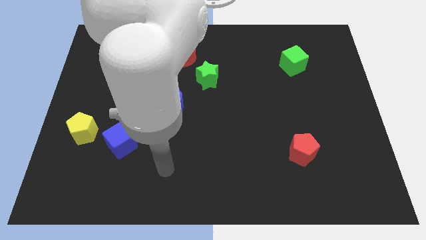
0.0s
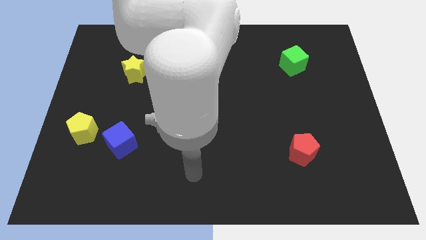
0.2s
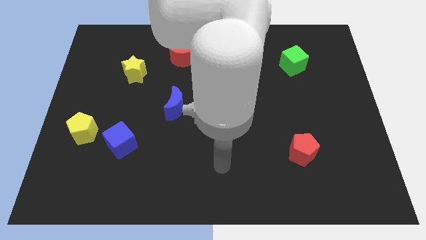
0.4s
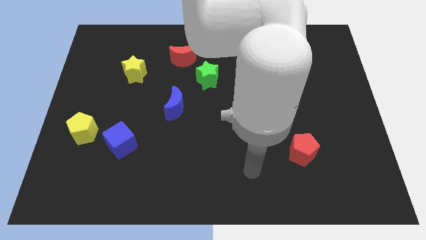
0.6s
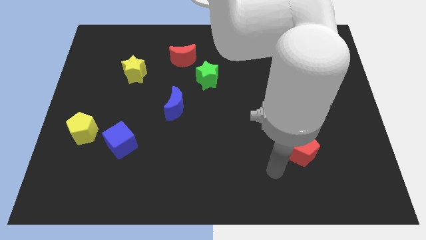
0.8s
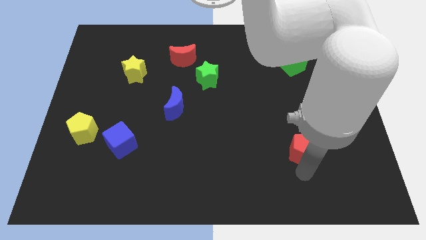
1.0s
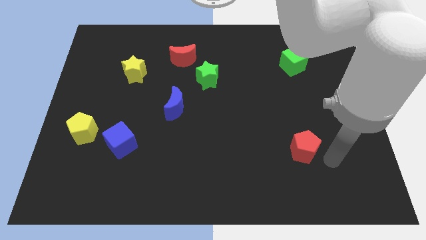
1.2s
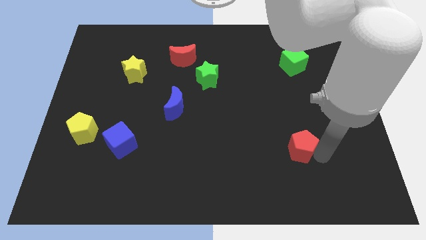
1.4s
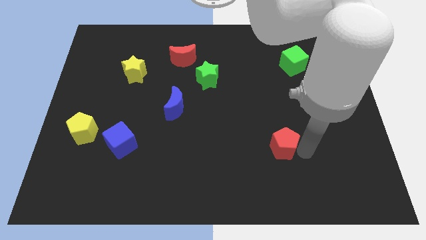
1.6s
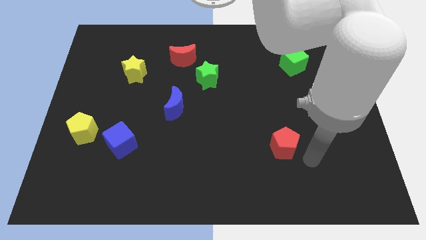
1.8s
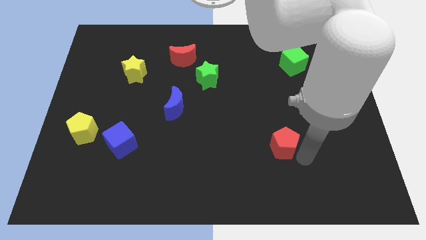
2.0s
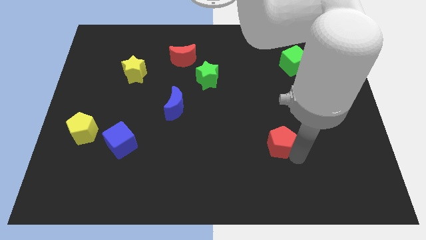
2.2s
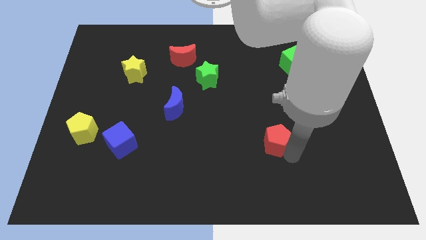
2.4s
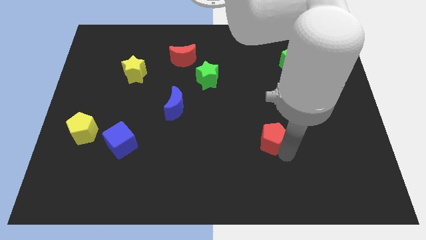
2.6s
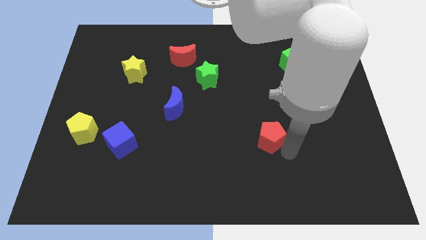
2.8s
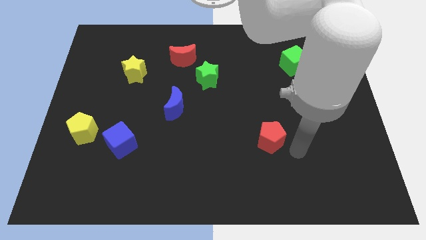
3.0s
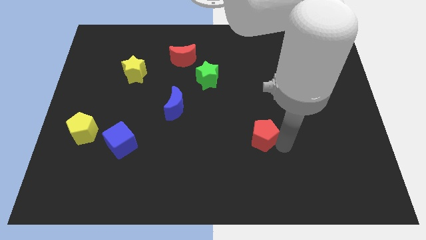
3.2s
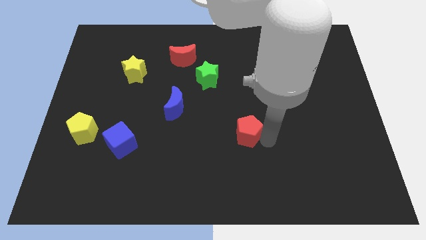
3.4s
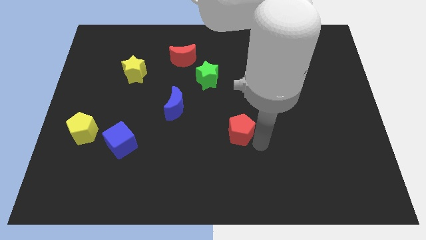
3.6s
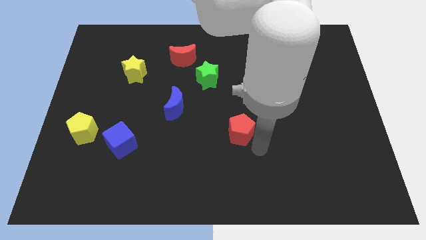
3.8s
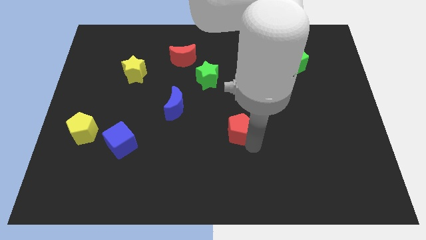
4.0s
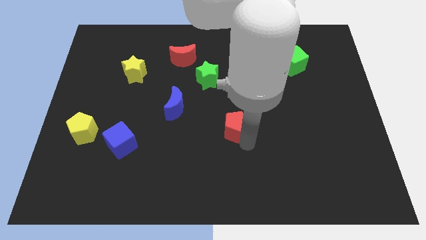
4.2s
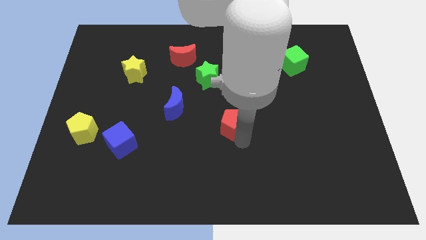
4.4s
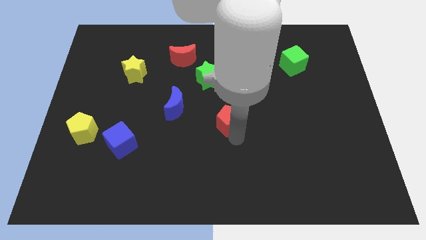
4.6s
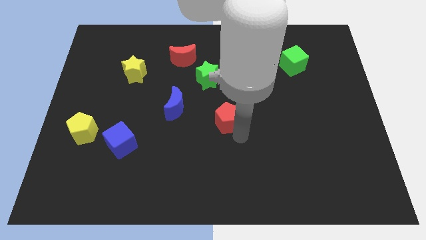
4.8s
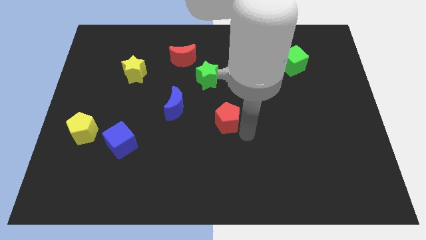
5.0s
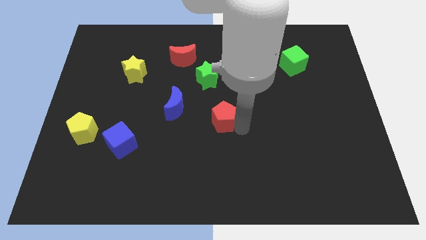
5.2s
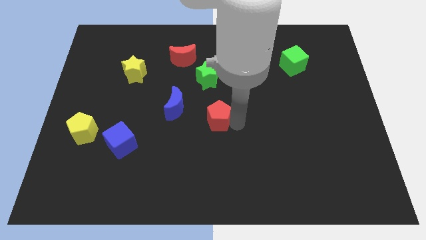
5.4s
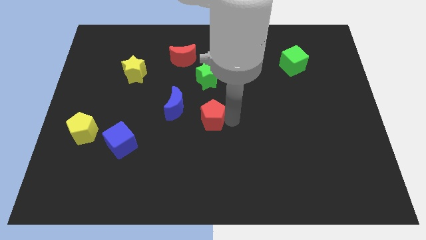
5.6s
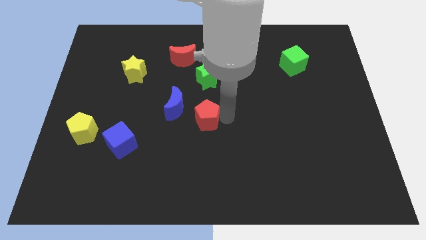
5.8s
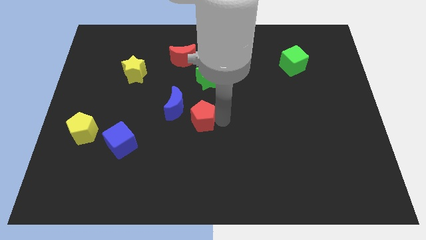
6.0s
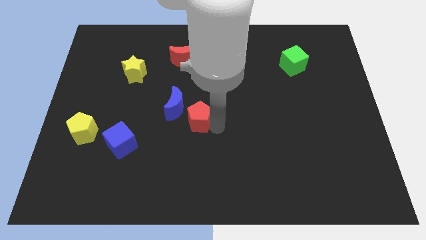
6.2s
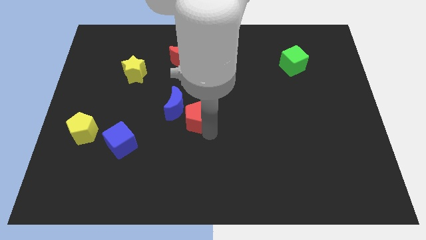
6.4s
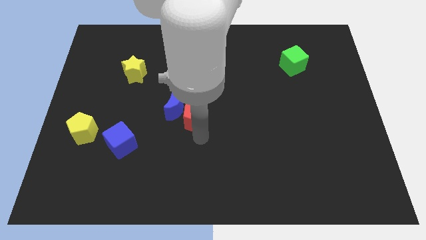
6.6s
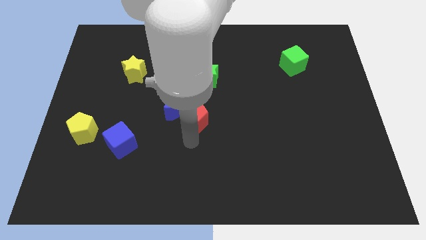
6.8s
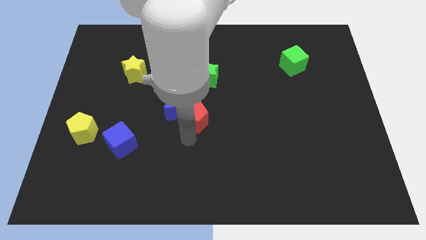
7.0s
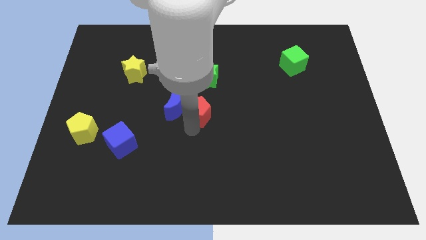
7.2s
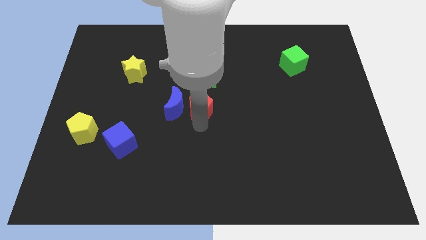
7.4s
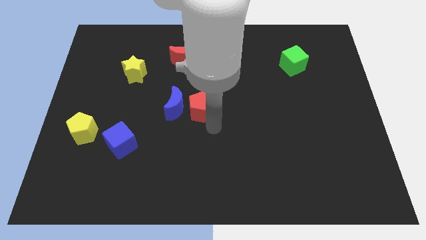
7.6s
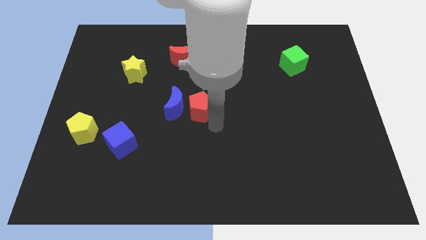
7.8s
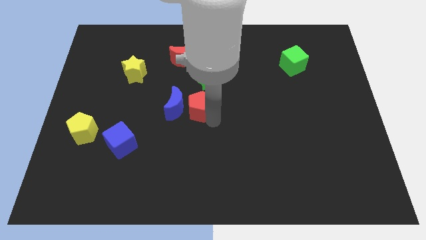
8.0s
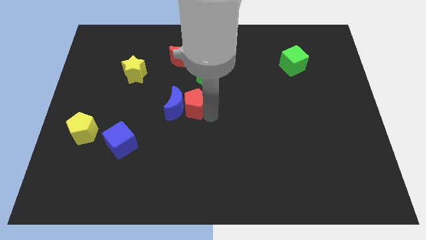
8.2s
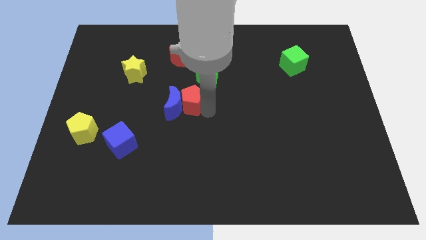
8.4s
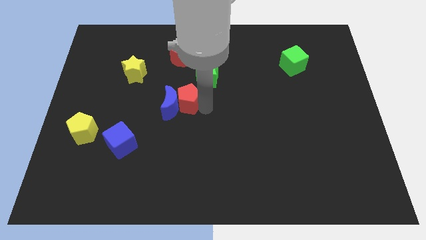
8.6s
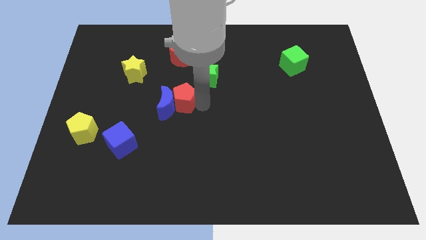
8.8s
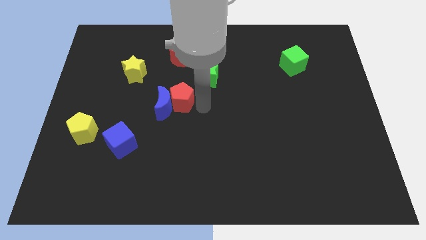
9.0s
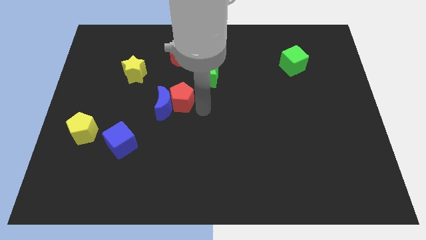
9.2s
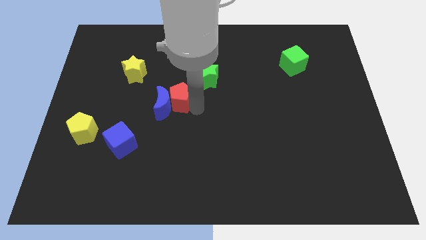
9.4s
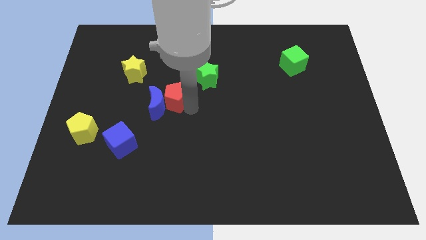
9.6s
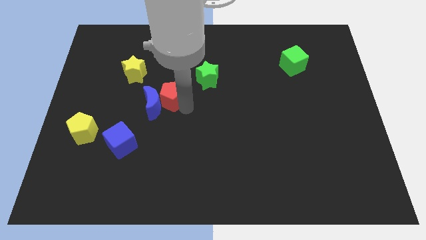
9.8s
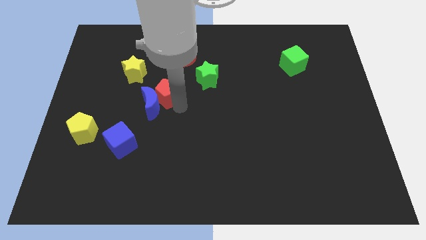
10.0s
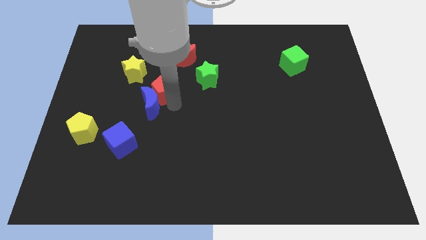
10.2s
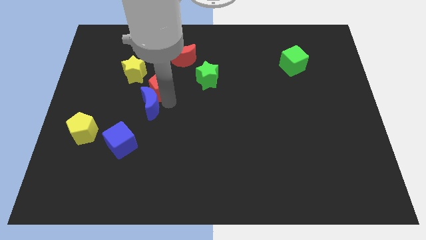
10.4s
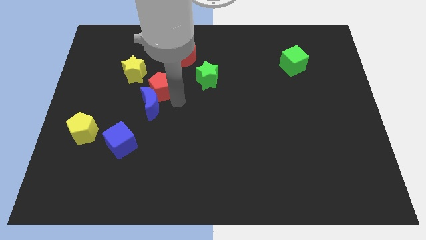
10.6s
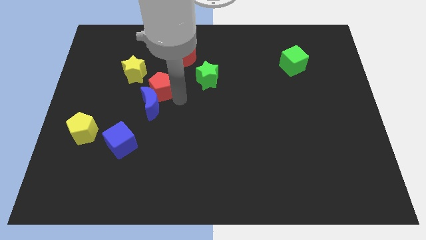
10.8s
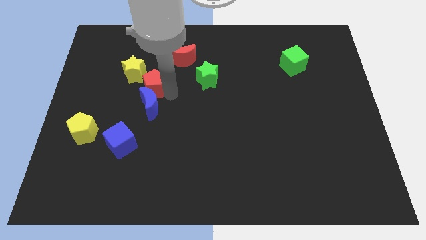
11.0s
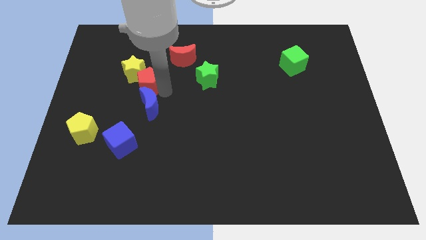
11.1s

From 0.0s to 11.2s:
move the red pentagon towards the yellow star

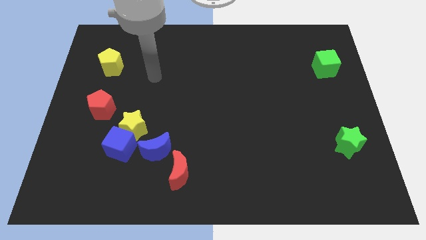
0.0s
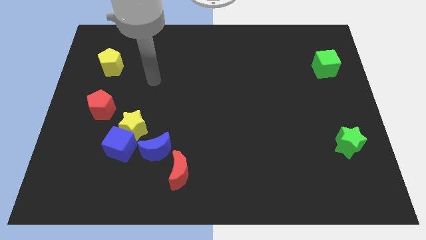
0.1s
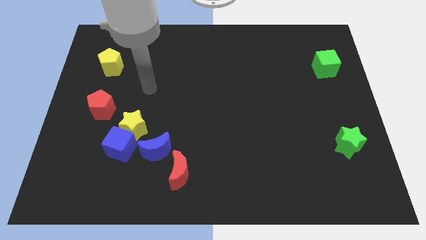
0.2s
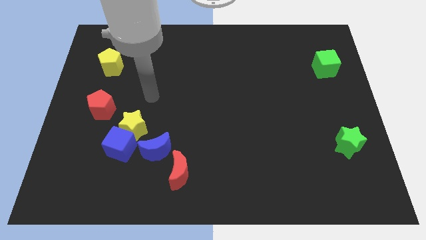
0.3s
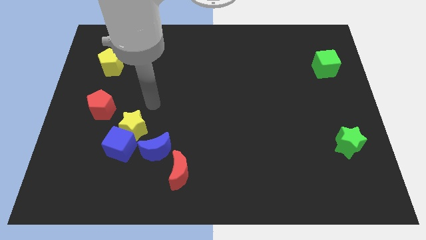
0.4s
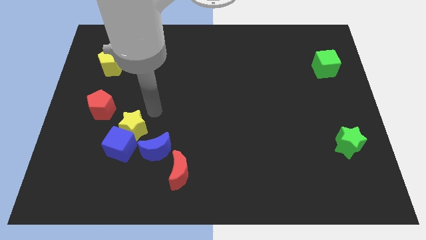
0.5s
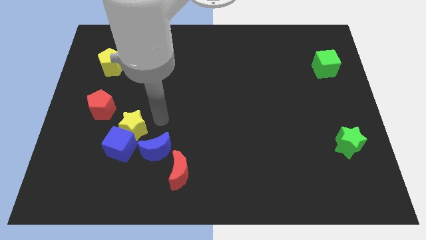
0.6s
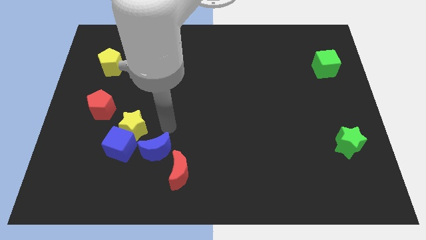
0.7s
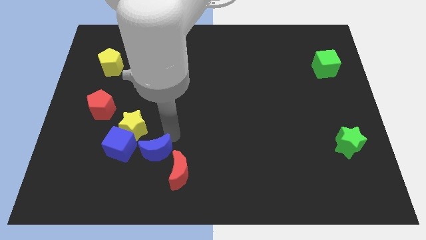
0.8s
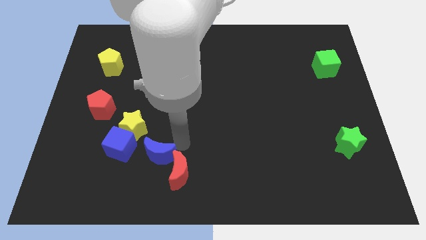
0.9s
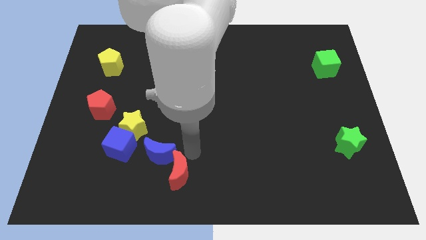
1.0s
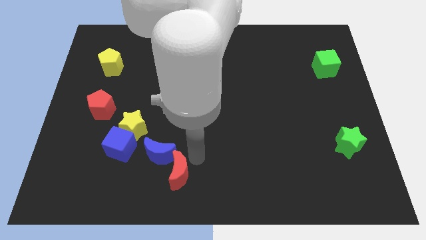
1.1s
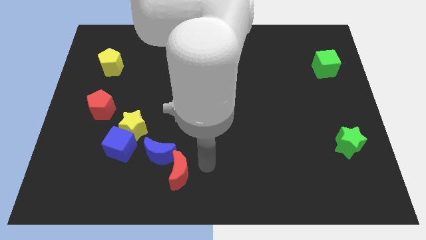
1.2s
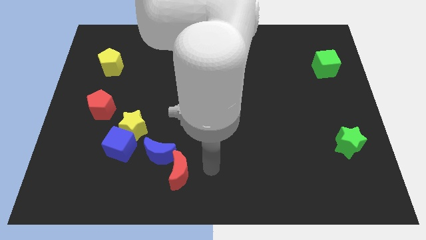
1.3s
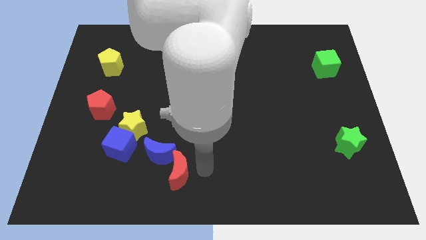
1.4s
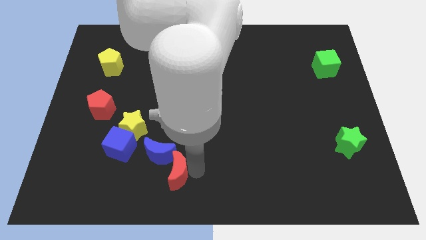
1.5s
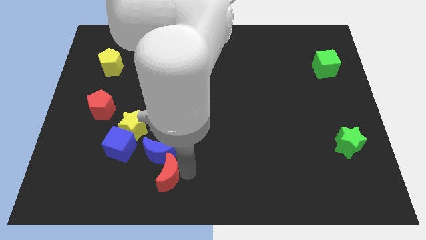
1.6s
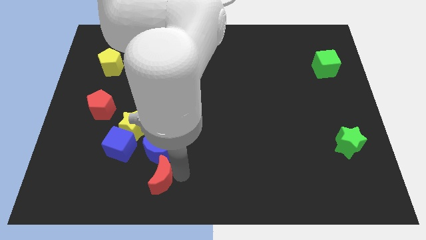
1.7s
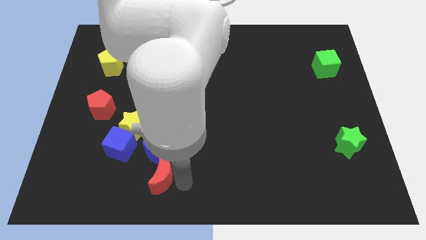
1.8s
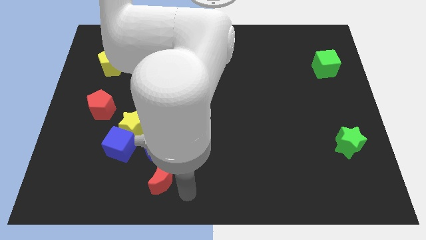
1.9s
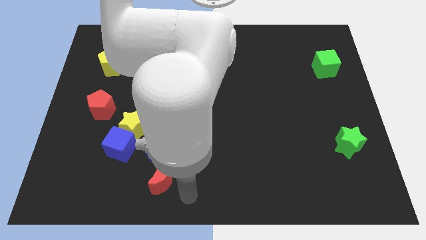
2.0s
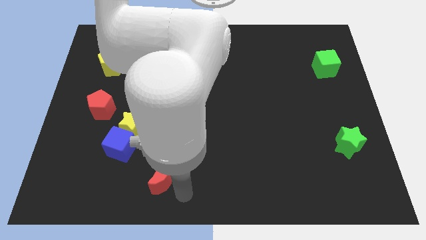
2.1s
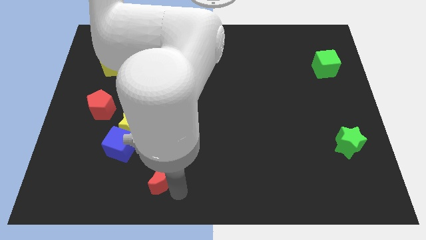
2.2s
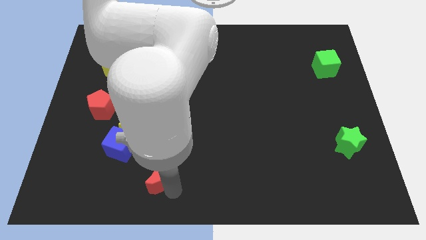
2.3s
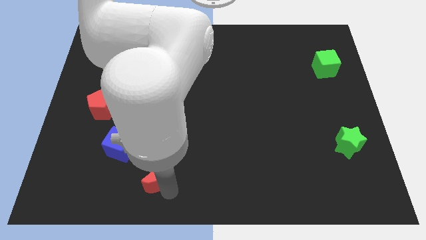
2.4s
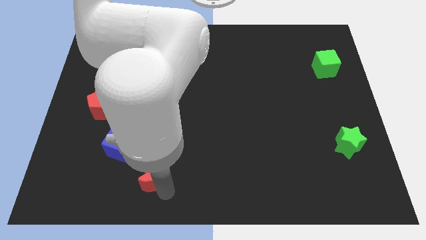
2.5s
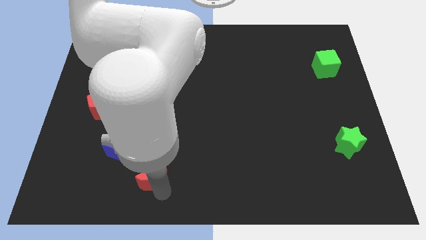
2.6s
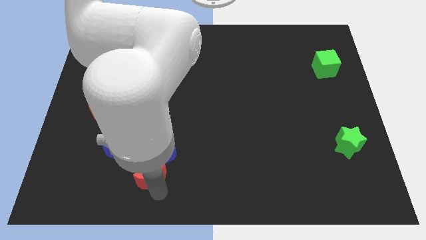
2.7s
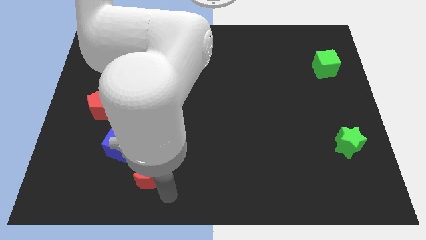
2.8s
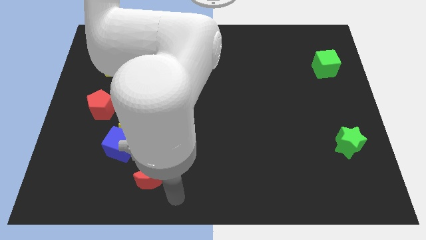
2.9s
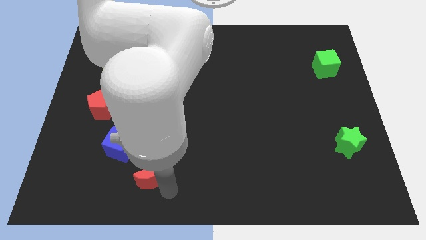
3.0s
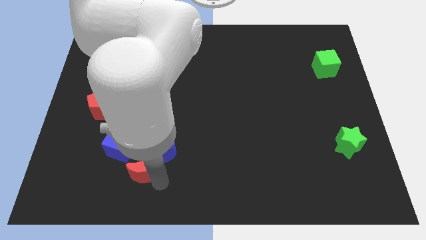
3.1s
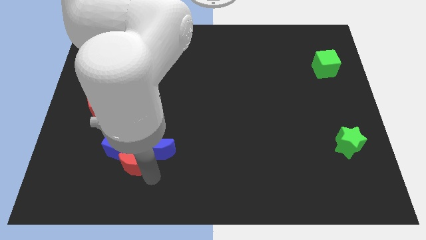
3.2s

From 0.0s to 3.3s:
slide the red moon towards the blue cube
